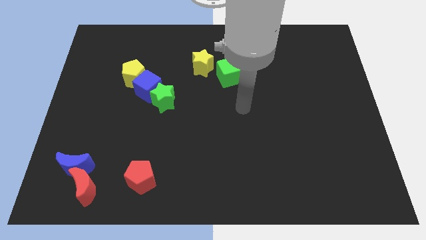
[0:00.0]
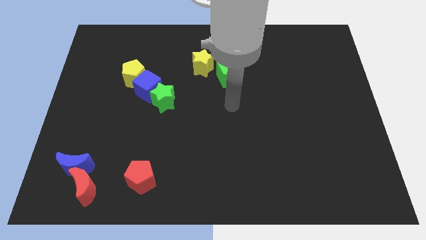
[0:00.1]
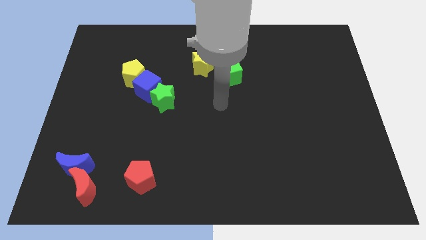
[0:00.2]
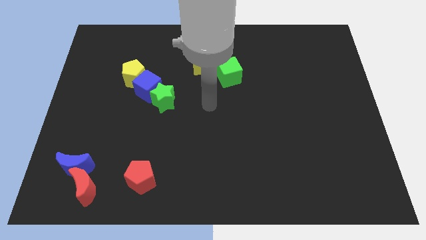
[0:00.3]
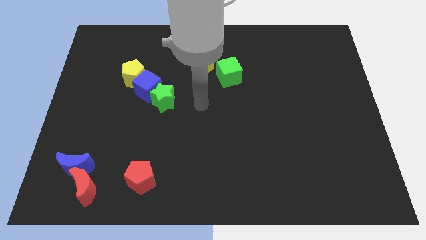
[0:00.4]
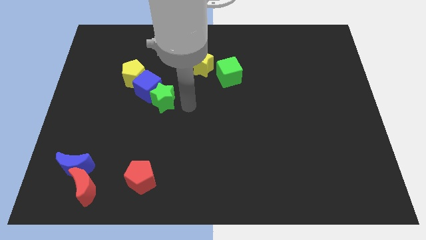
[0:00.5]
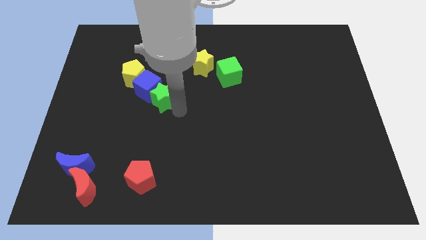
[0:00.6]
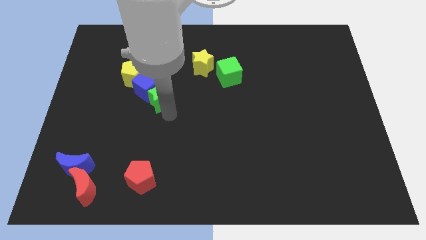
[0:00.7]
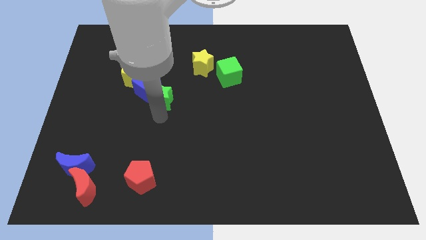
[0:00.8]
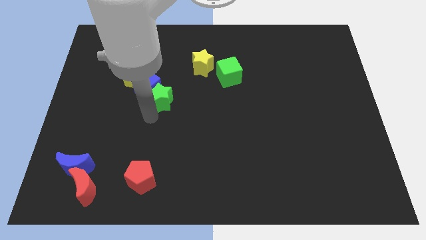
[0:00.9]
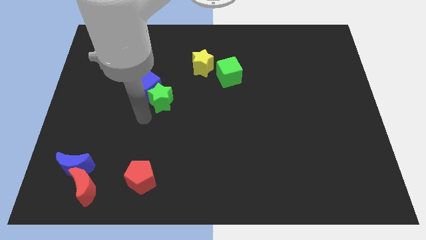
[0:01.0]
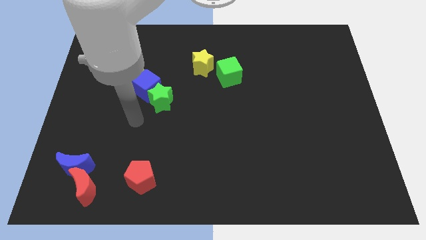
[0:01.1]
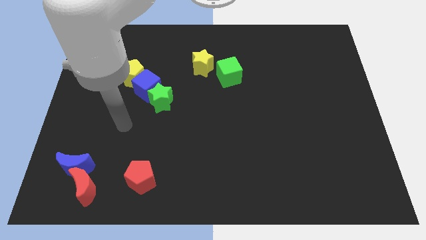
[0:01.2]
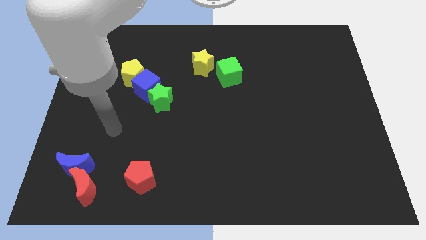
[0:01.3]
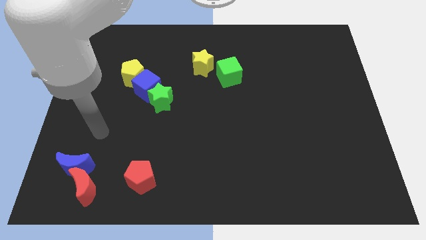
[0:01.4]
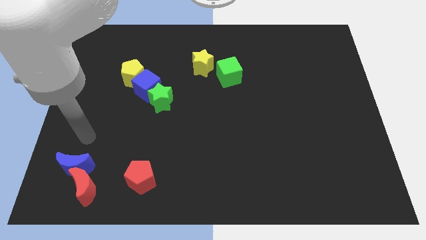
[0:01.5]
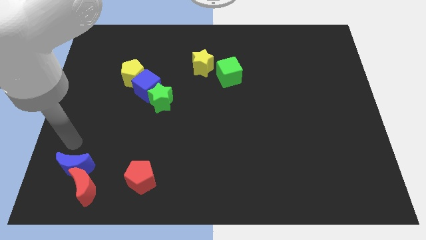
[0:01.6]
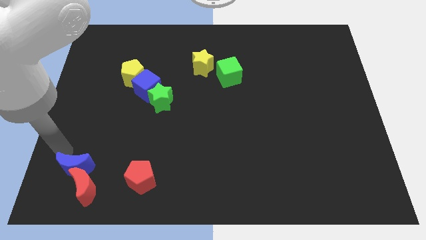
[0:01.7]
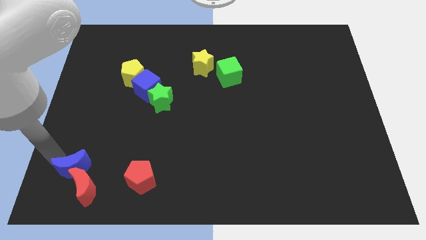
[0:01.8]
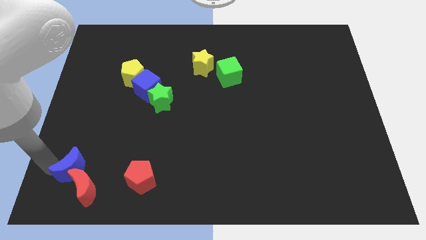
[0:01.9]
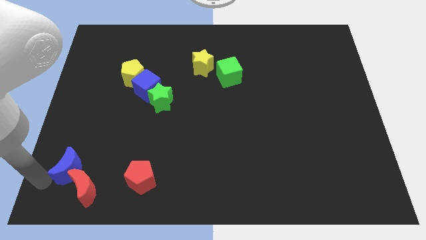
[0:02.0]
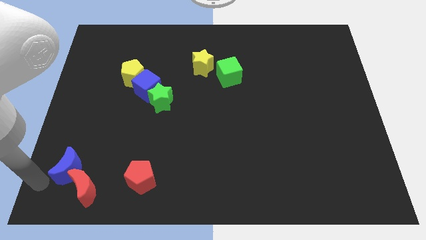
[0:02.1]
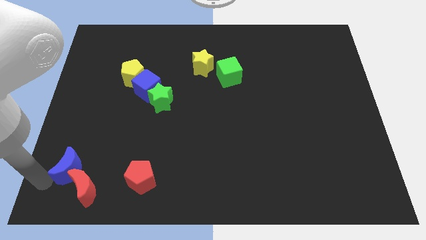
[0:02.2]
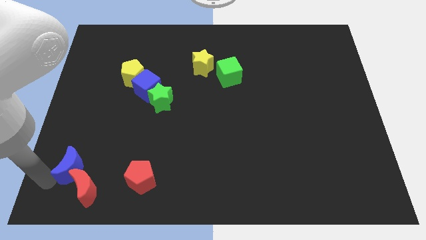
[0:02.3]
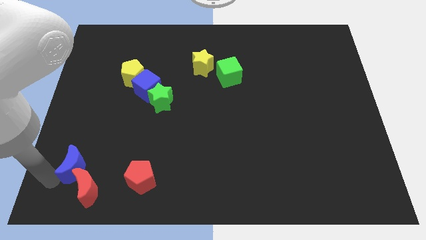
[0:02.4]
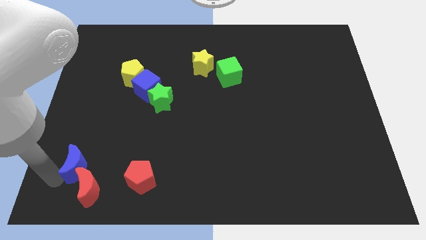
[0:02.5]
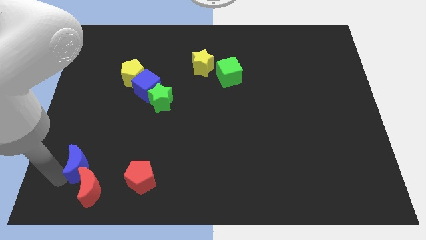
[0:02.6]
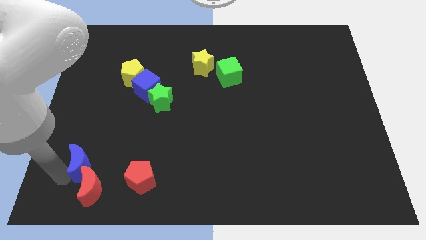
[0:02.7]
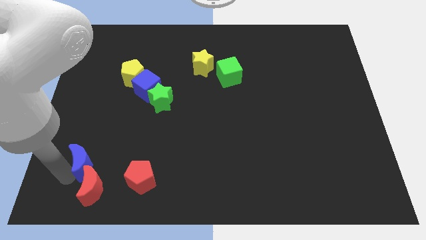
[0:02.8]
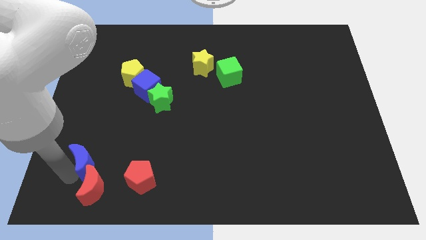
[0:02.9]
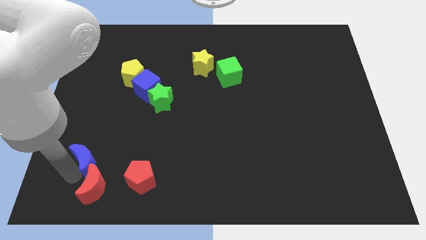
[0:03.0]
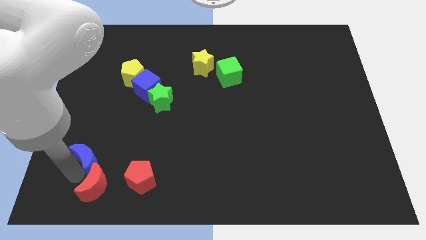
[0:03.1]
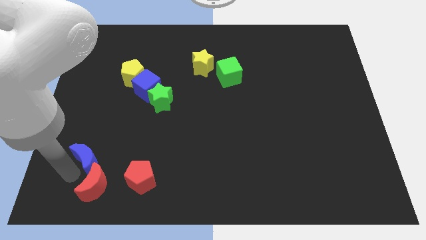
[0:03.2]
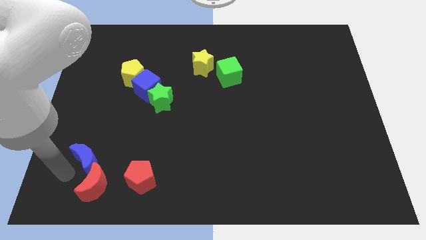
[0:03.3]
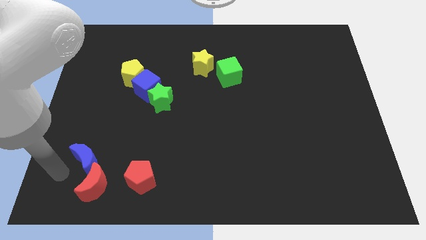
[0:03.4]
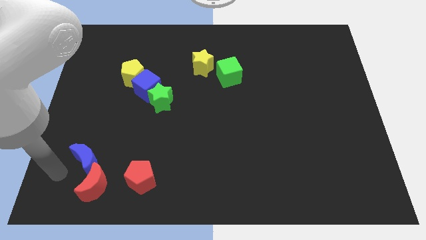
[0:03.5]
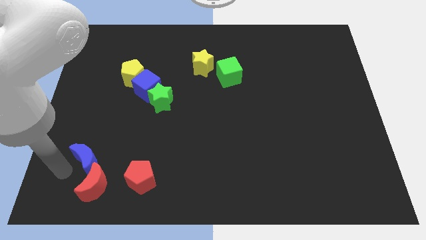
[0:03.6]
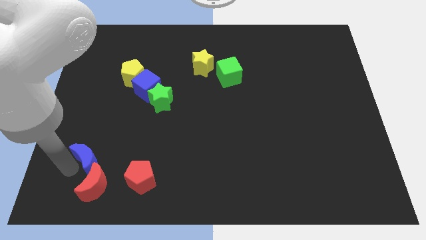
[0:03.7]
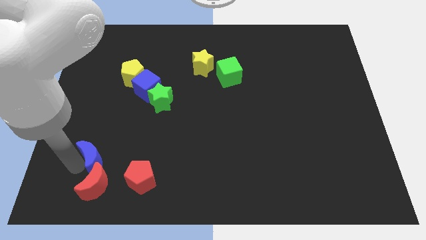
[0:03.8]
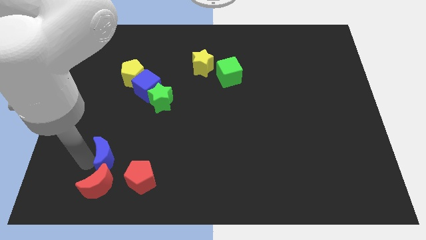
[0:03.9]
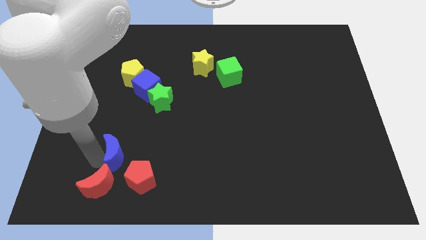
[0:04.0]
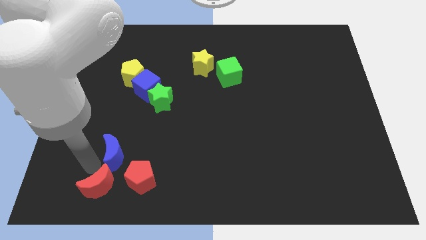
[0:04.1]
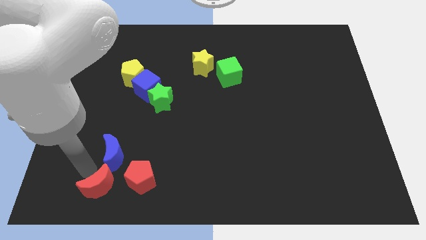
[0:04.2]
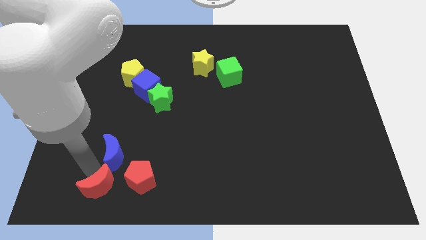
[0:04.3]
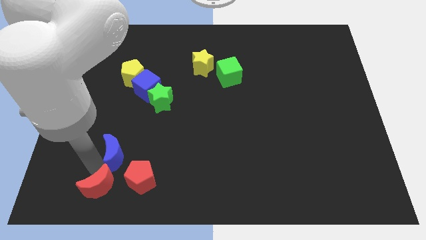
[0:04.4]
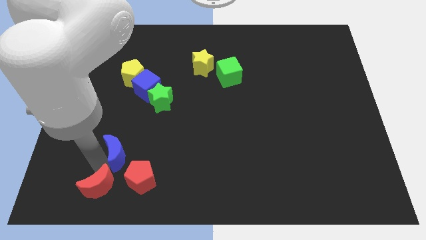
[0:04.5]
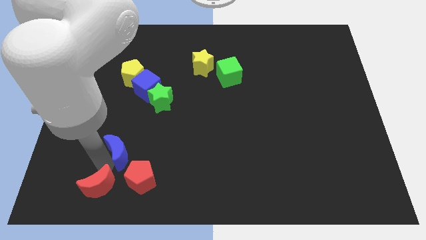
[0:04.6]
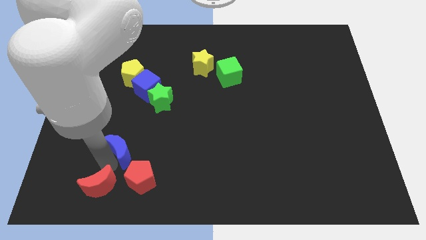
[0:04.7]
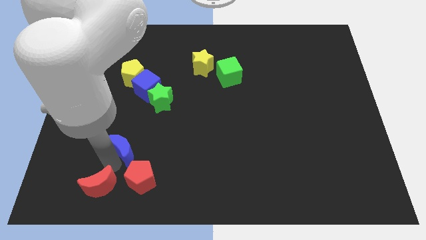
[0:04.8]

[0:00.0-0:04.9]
move the blue moon to the top side of the red pentagon

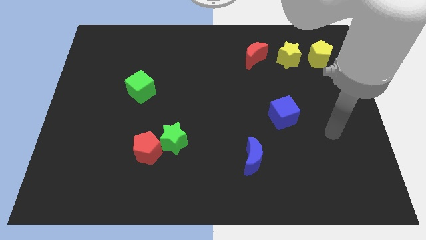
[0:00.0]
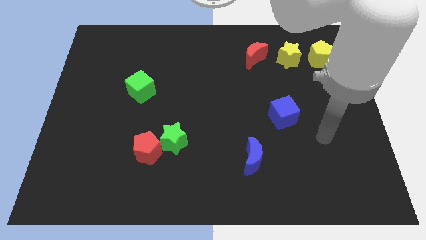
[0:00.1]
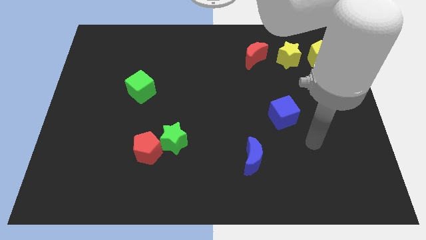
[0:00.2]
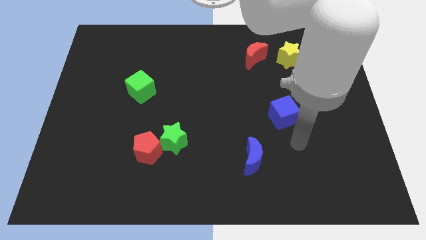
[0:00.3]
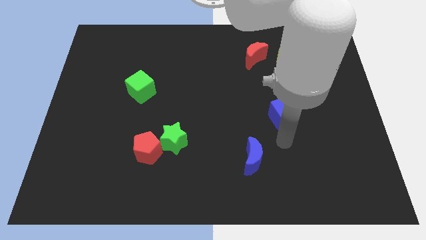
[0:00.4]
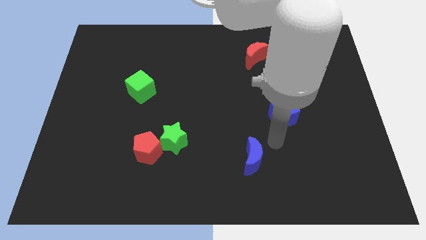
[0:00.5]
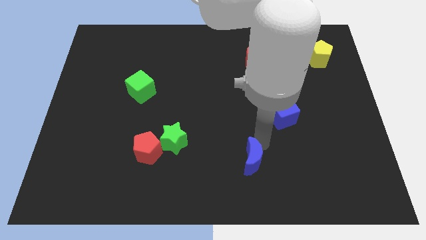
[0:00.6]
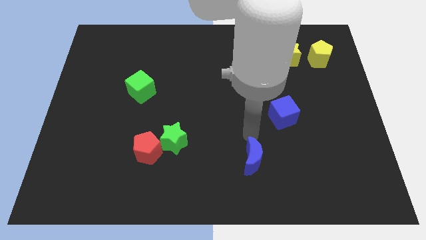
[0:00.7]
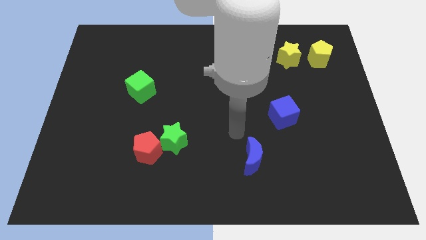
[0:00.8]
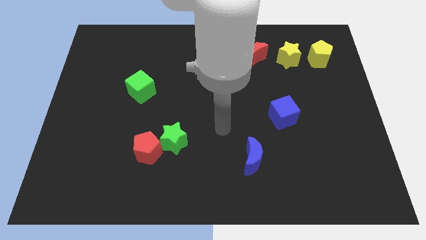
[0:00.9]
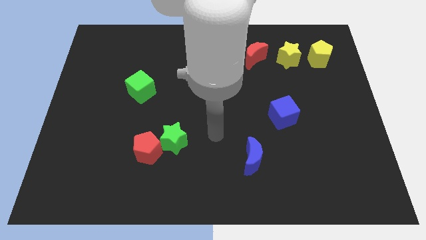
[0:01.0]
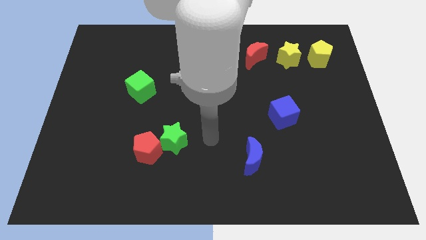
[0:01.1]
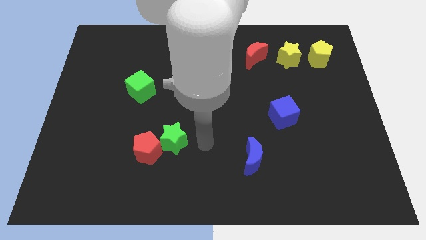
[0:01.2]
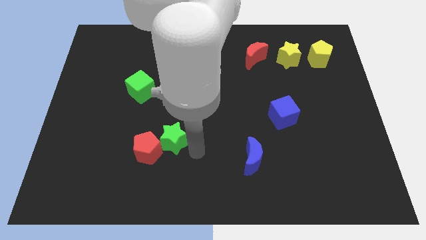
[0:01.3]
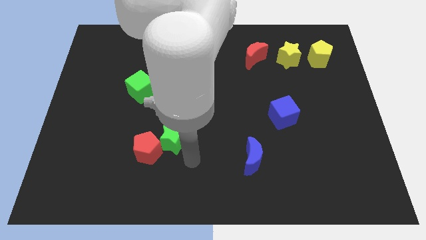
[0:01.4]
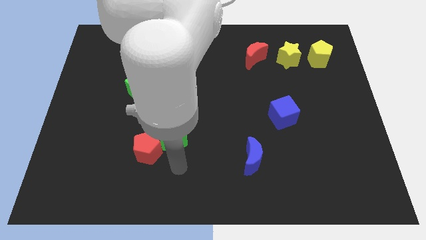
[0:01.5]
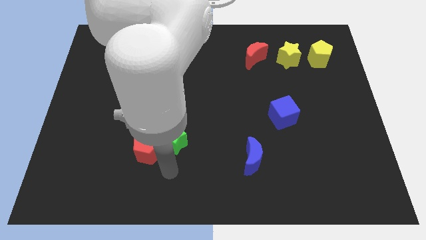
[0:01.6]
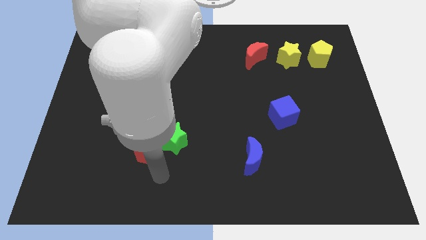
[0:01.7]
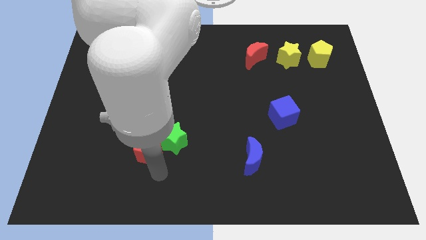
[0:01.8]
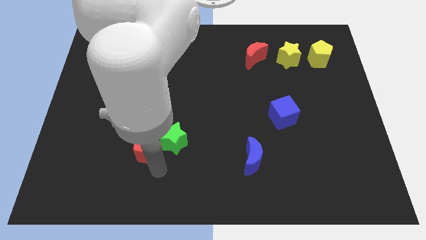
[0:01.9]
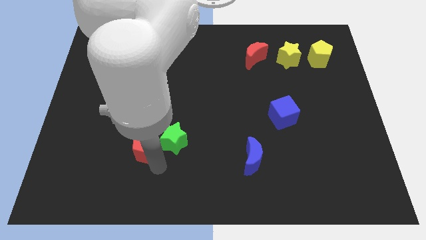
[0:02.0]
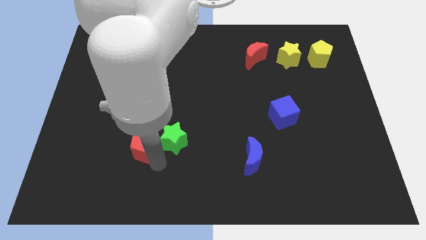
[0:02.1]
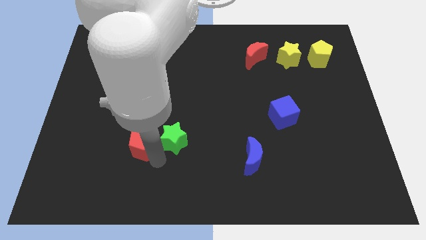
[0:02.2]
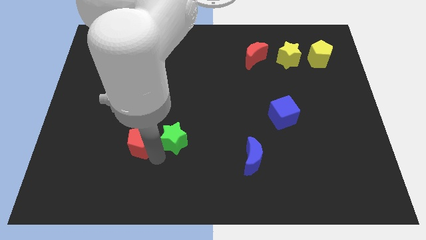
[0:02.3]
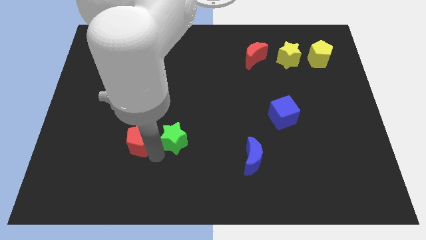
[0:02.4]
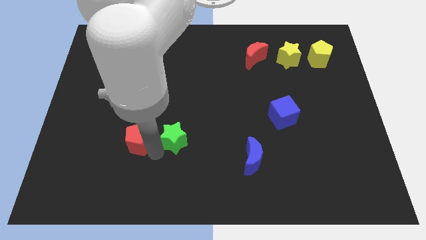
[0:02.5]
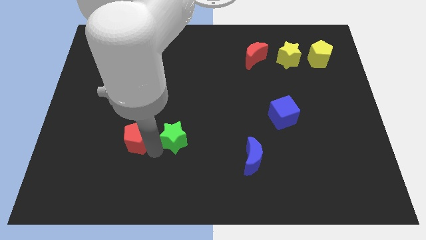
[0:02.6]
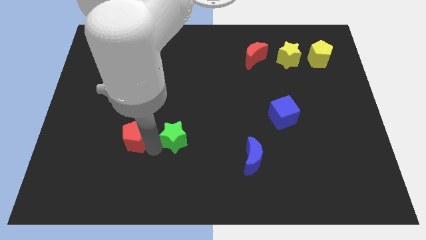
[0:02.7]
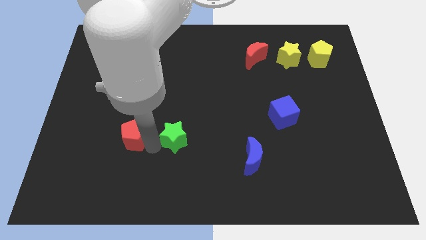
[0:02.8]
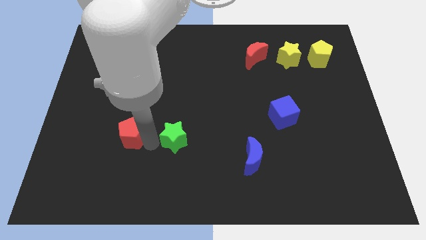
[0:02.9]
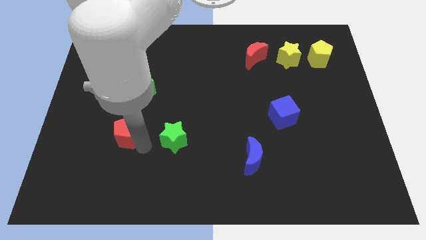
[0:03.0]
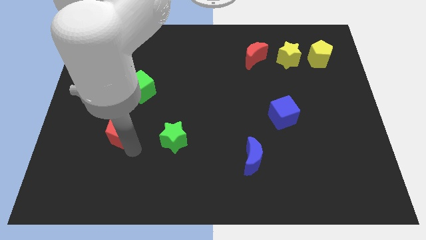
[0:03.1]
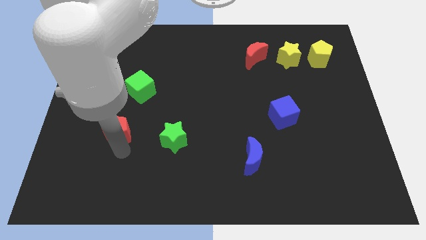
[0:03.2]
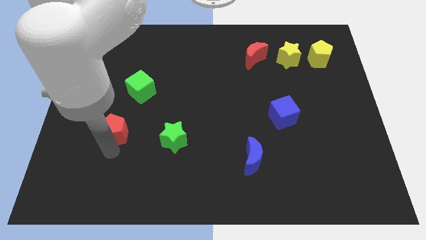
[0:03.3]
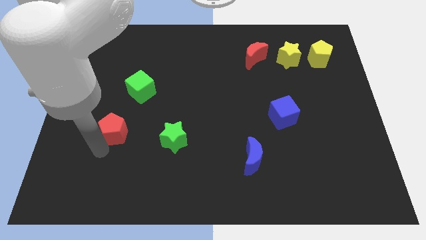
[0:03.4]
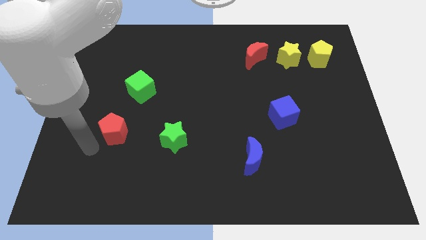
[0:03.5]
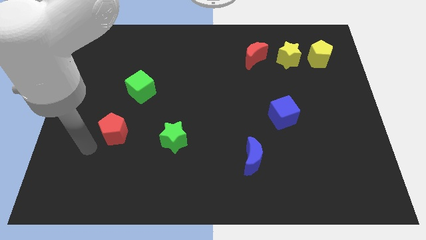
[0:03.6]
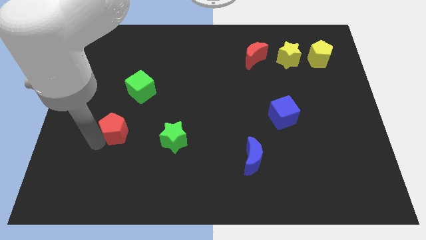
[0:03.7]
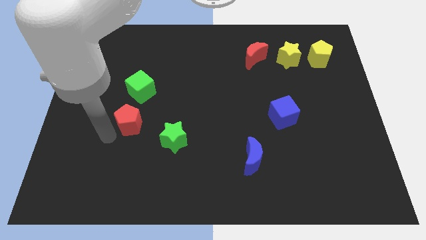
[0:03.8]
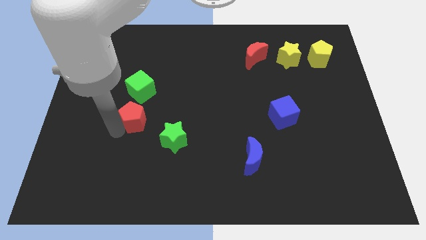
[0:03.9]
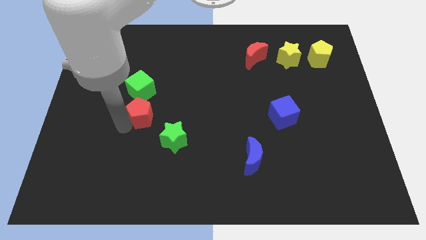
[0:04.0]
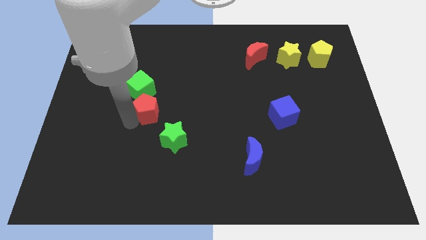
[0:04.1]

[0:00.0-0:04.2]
move the red pentagon to the bottom right side of the green cube
